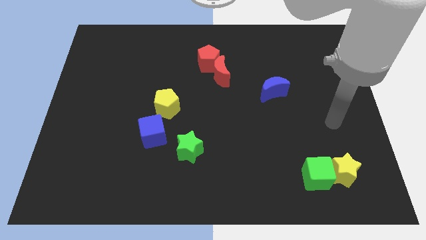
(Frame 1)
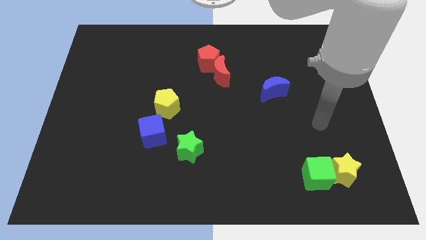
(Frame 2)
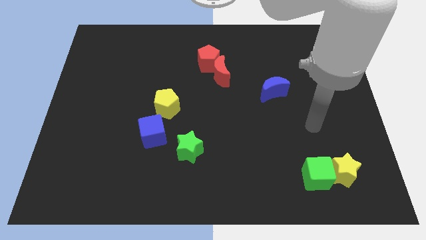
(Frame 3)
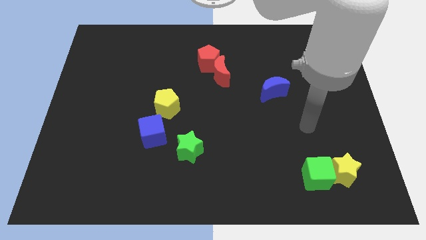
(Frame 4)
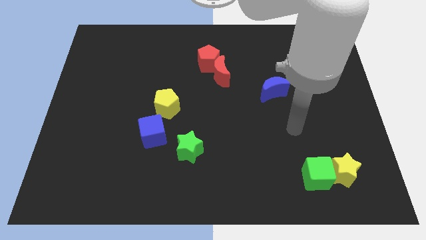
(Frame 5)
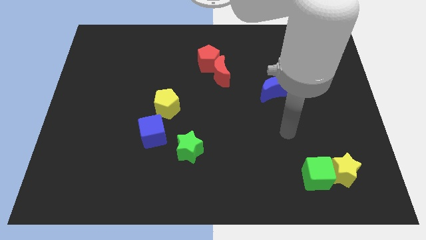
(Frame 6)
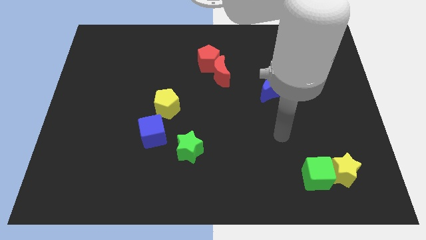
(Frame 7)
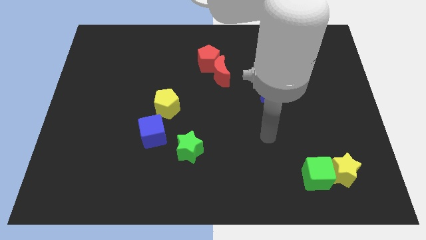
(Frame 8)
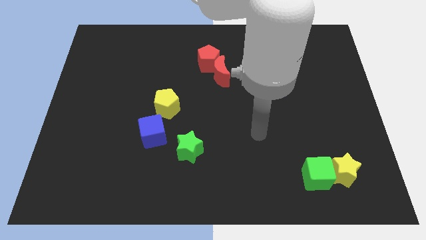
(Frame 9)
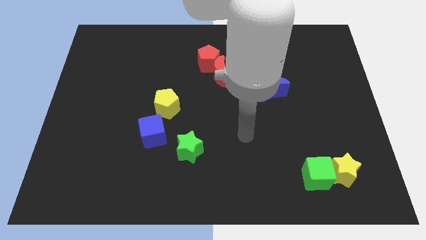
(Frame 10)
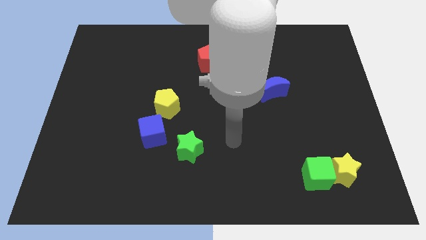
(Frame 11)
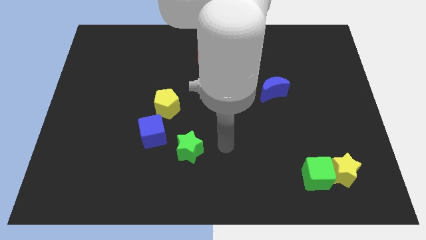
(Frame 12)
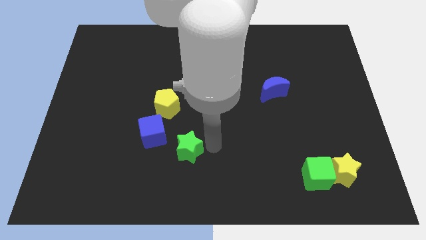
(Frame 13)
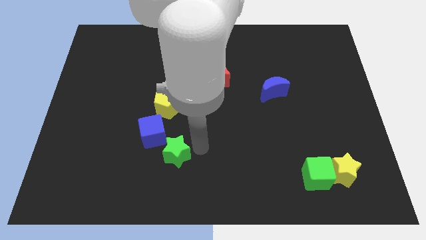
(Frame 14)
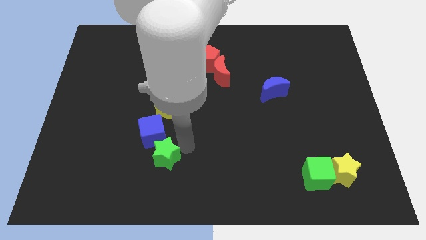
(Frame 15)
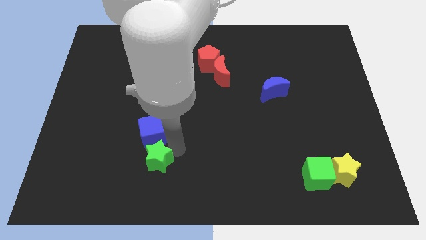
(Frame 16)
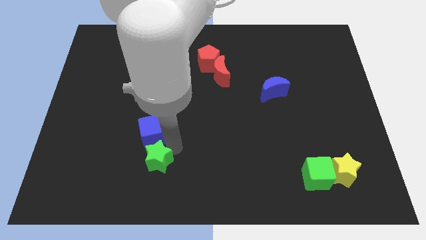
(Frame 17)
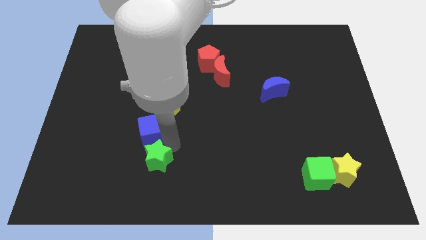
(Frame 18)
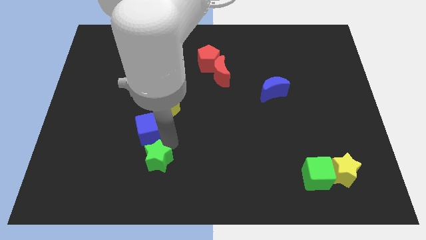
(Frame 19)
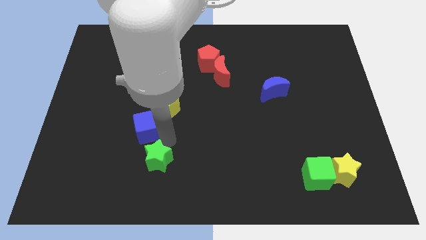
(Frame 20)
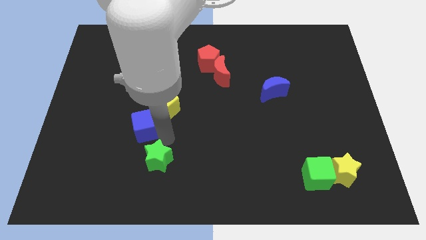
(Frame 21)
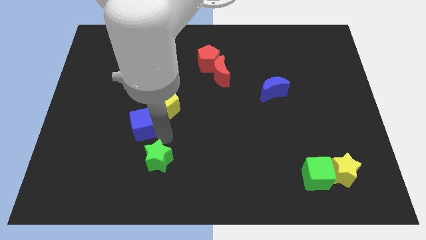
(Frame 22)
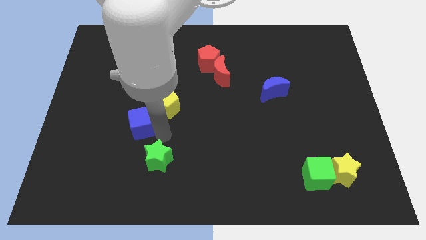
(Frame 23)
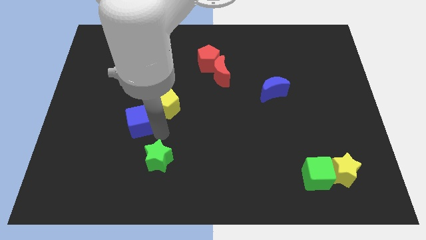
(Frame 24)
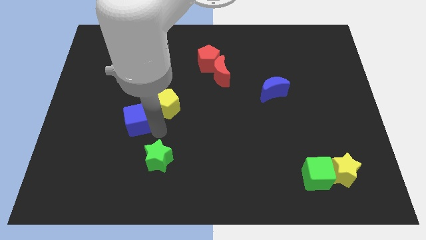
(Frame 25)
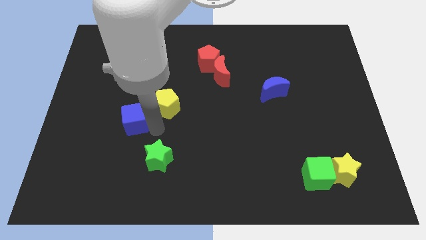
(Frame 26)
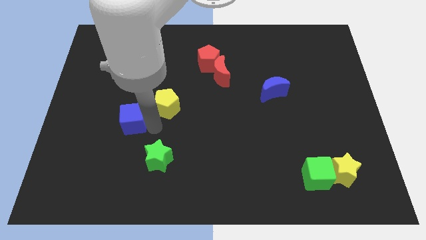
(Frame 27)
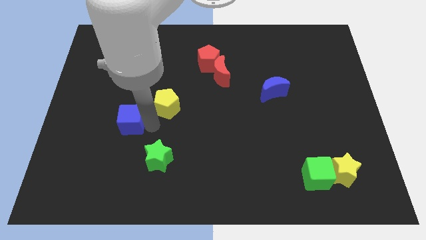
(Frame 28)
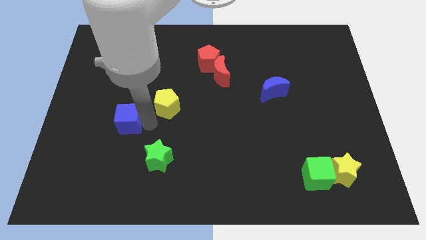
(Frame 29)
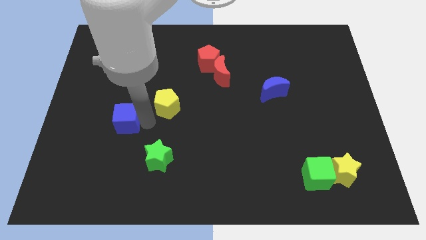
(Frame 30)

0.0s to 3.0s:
slightly push the blue cube up and then to the left

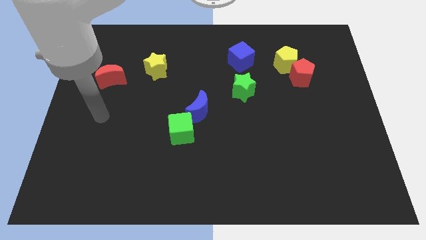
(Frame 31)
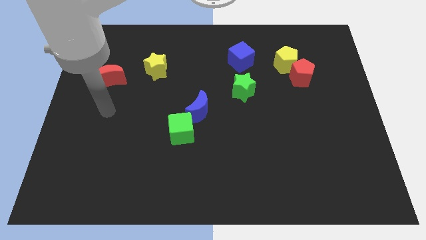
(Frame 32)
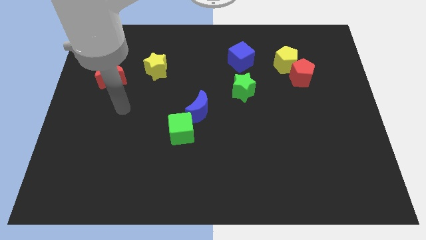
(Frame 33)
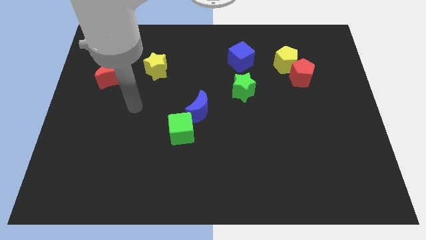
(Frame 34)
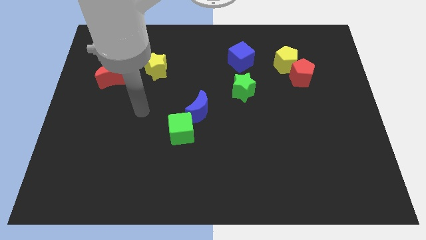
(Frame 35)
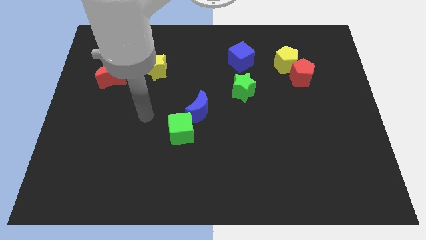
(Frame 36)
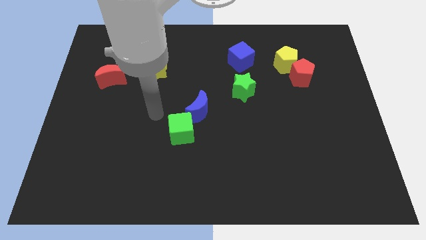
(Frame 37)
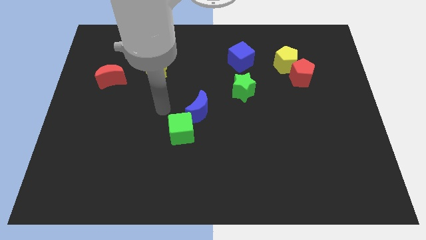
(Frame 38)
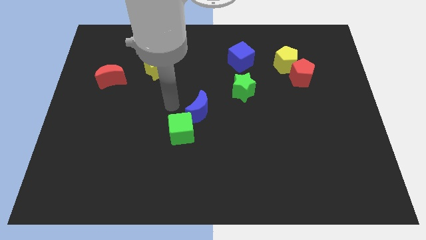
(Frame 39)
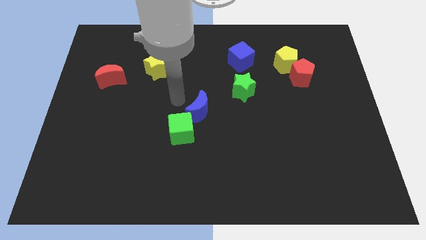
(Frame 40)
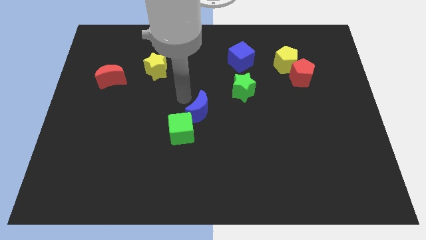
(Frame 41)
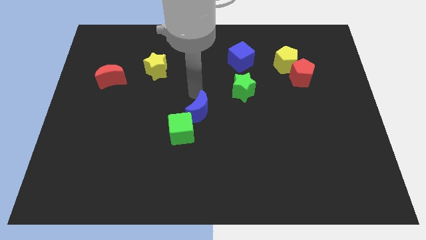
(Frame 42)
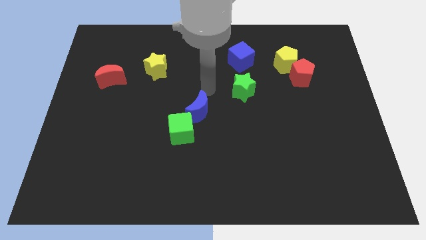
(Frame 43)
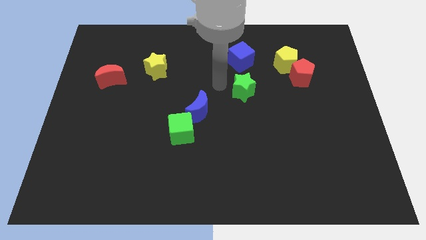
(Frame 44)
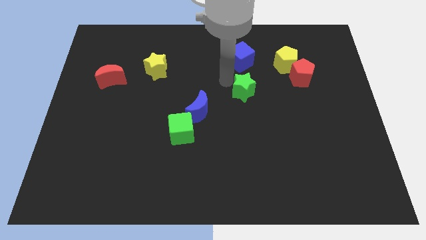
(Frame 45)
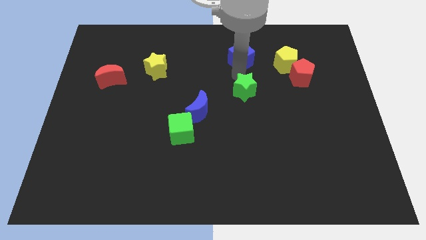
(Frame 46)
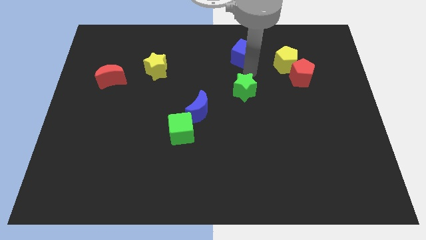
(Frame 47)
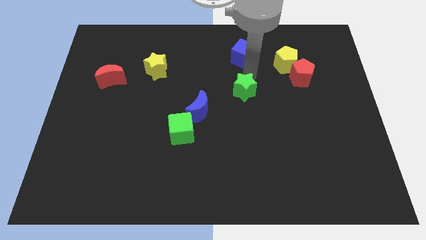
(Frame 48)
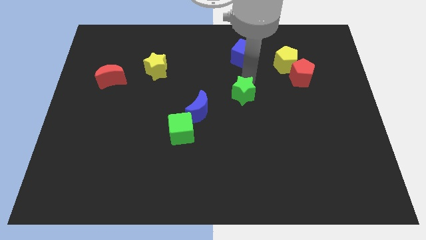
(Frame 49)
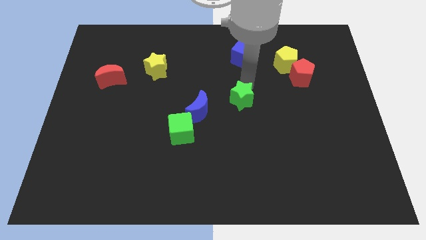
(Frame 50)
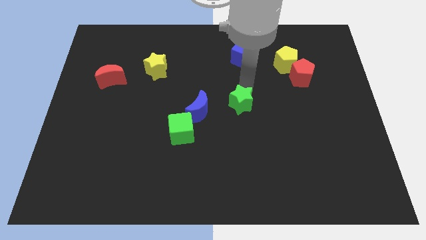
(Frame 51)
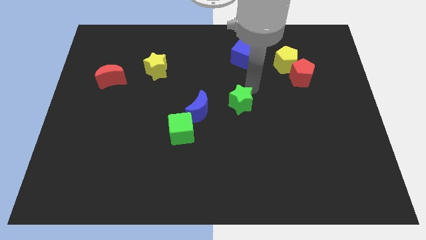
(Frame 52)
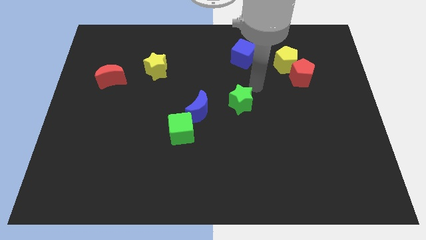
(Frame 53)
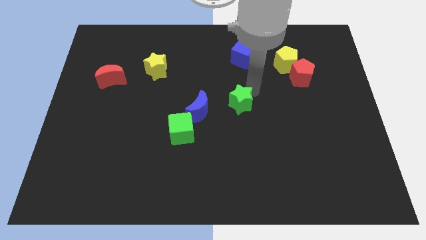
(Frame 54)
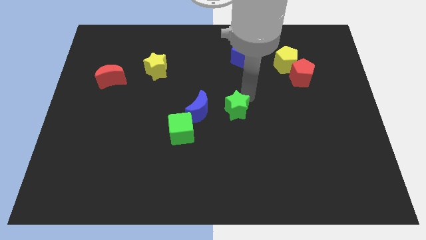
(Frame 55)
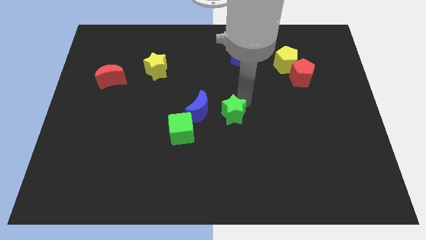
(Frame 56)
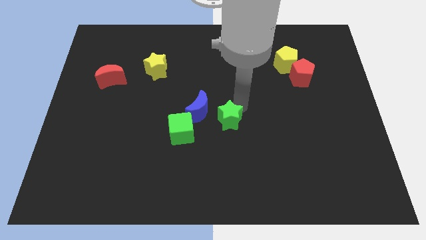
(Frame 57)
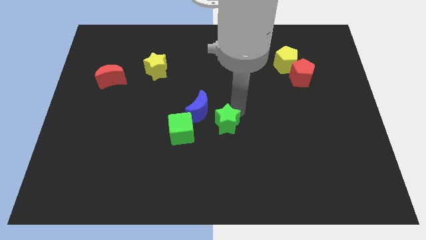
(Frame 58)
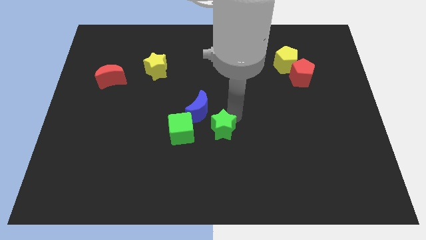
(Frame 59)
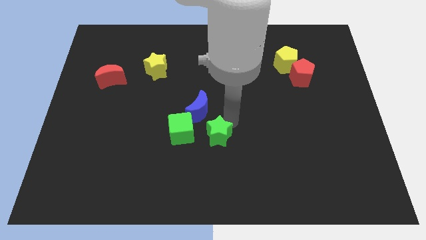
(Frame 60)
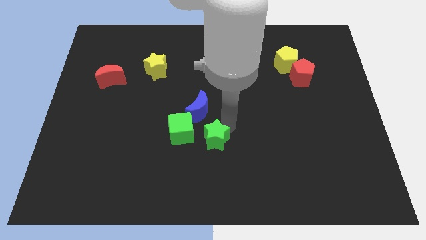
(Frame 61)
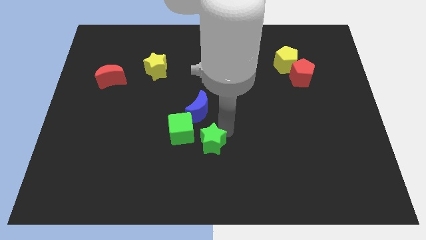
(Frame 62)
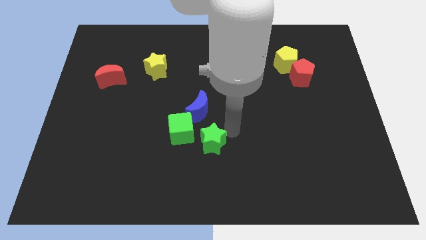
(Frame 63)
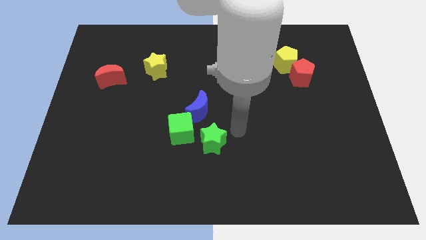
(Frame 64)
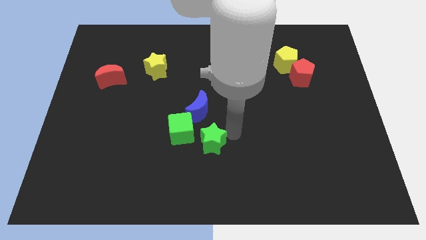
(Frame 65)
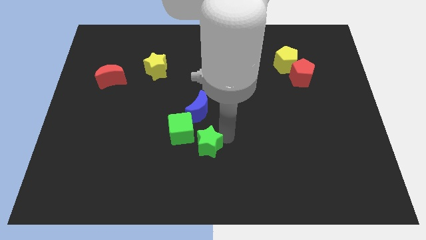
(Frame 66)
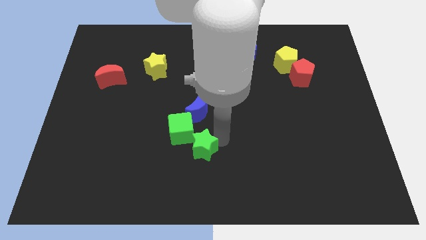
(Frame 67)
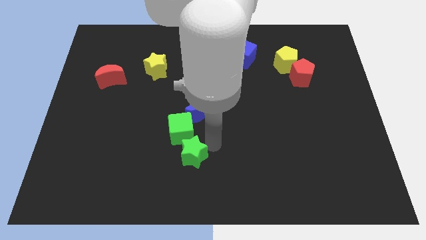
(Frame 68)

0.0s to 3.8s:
move the green star downwards and to the left diagonally

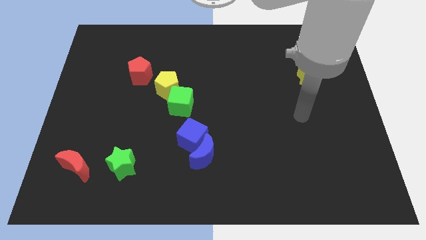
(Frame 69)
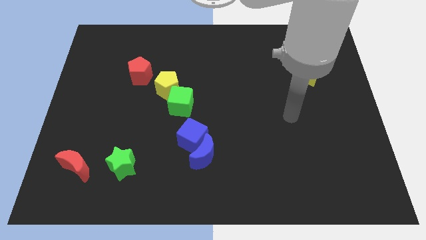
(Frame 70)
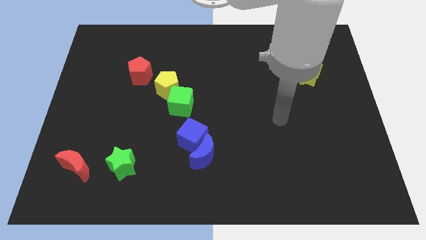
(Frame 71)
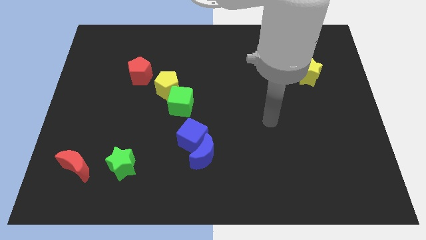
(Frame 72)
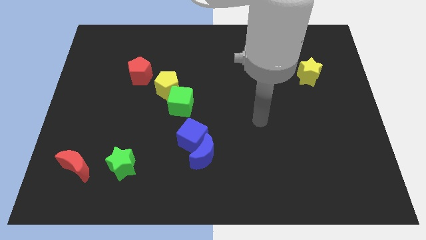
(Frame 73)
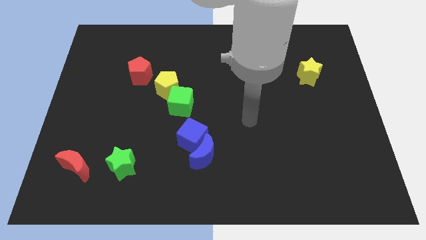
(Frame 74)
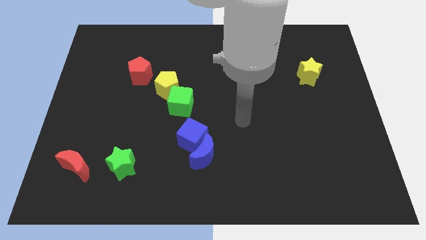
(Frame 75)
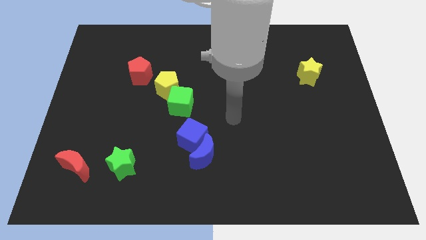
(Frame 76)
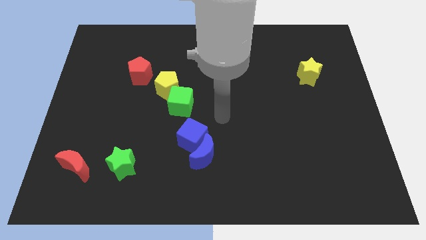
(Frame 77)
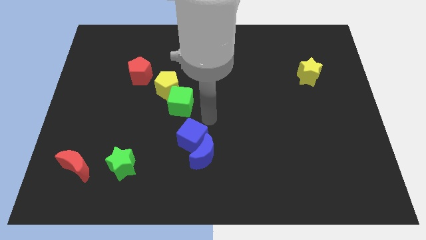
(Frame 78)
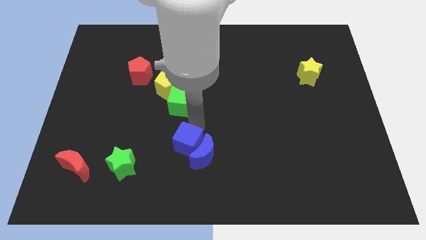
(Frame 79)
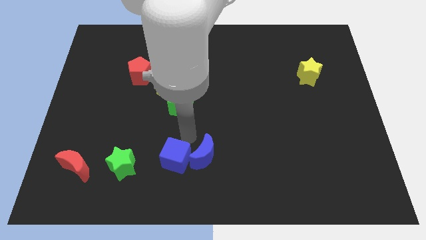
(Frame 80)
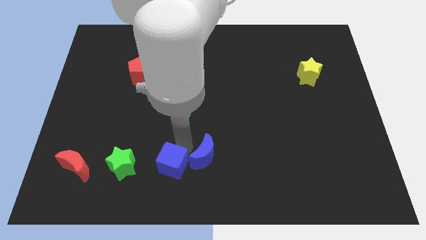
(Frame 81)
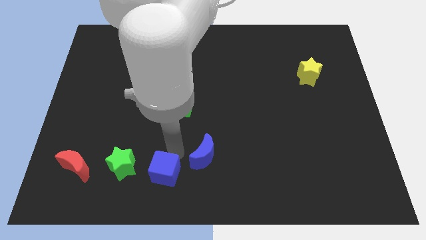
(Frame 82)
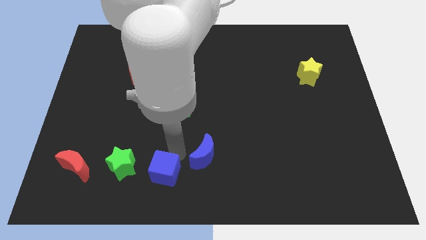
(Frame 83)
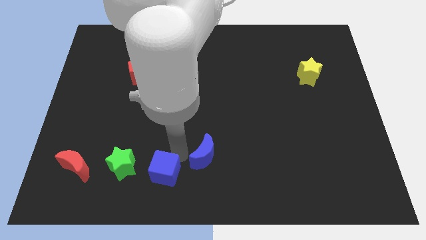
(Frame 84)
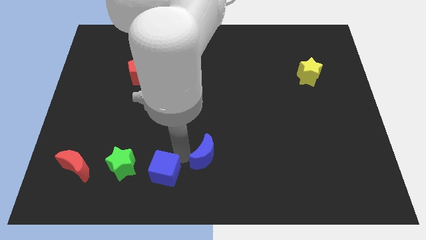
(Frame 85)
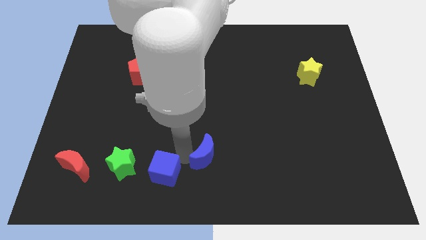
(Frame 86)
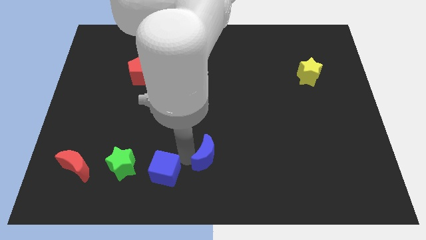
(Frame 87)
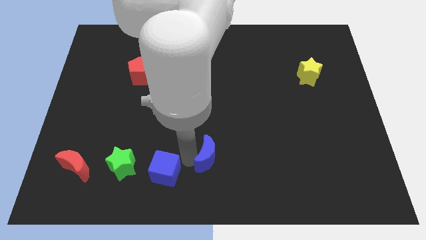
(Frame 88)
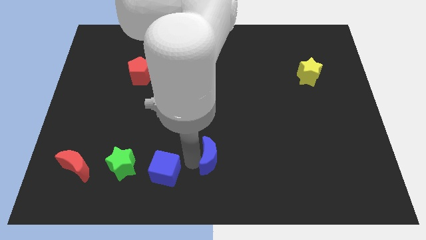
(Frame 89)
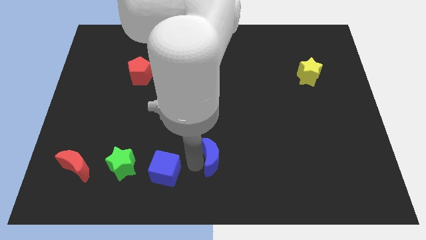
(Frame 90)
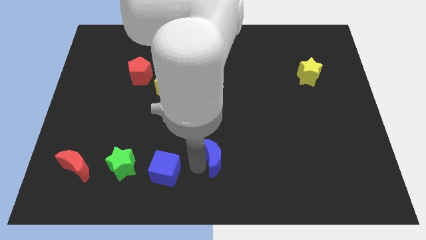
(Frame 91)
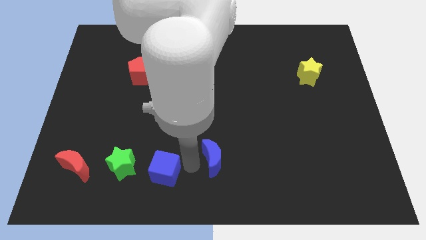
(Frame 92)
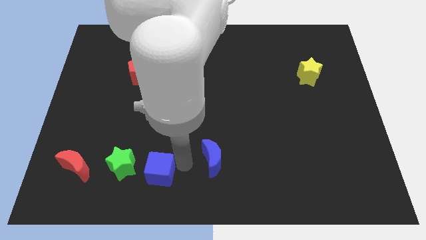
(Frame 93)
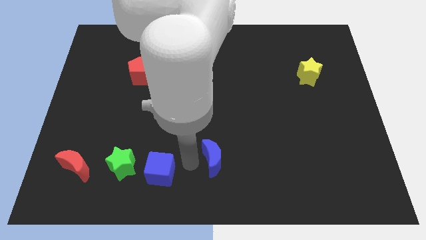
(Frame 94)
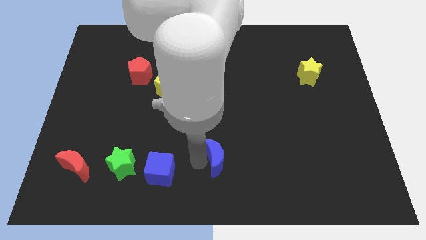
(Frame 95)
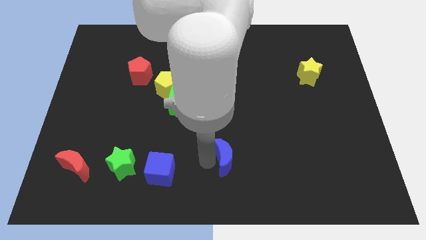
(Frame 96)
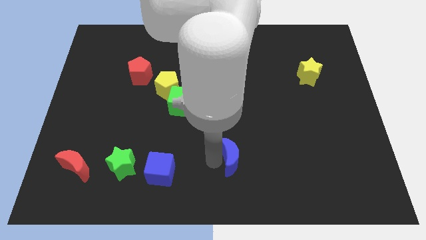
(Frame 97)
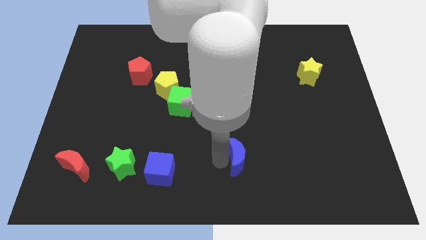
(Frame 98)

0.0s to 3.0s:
slightly slide the blue moon to the right
